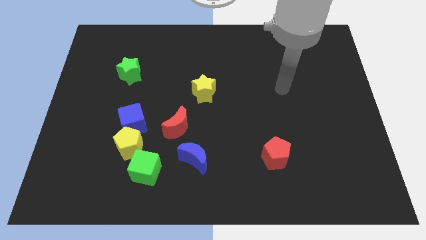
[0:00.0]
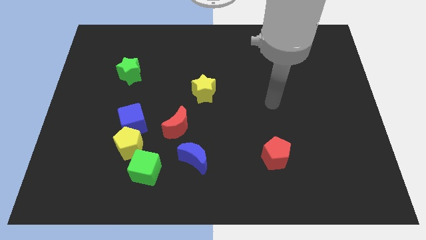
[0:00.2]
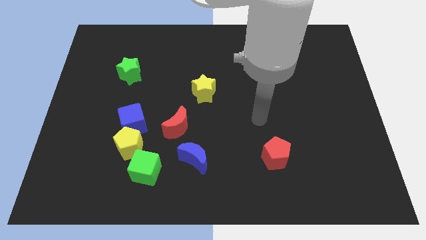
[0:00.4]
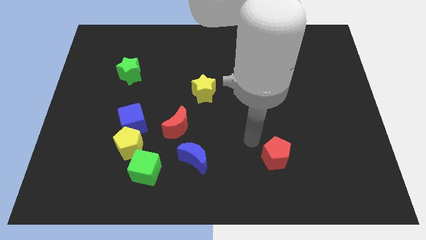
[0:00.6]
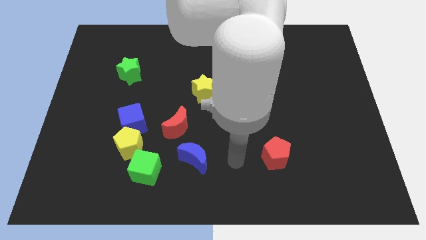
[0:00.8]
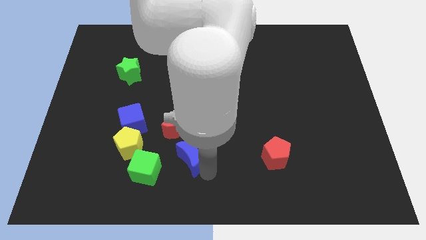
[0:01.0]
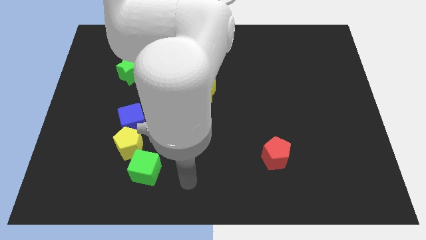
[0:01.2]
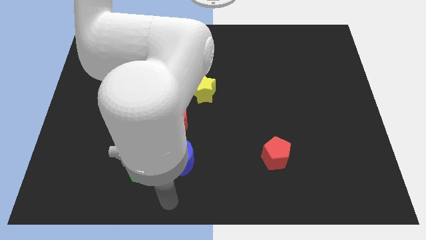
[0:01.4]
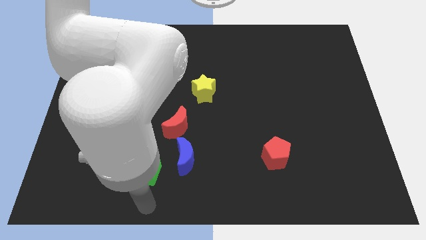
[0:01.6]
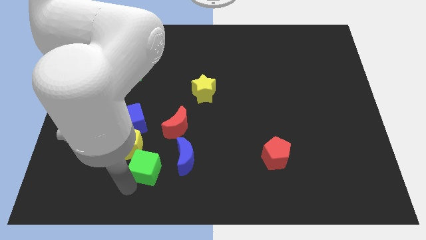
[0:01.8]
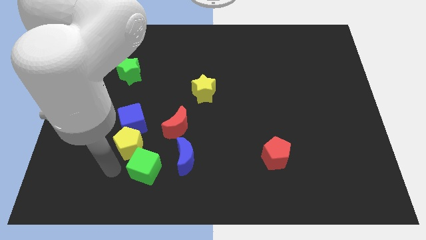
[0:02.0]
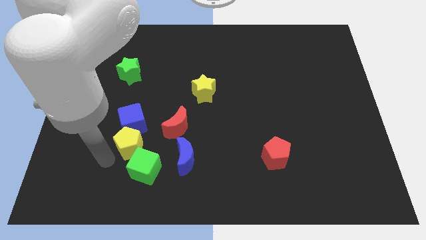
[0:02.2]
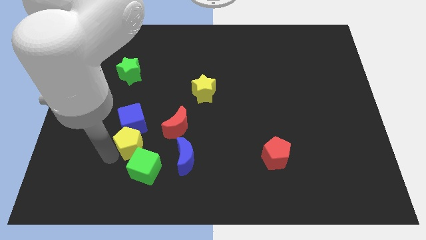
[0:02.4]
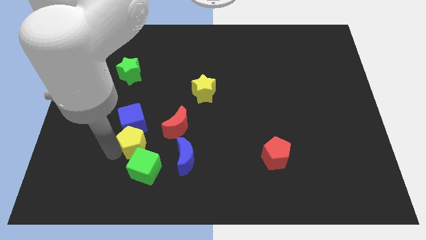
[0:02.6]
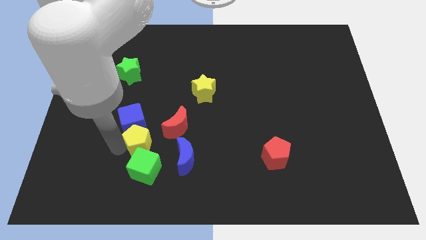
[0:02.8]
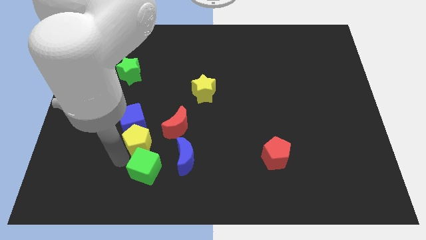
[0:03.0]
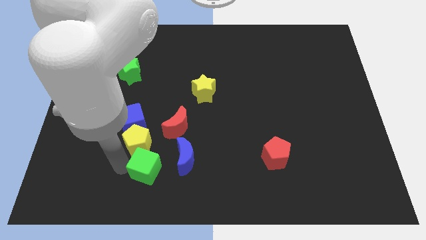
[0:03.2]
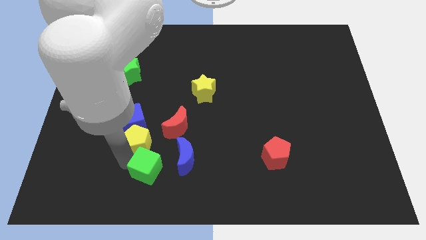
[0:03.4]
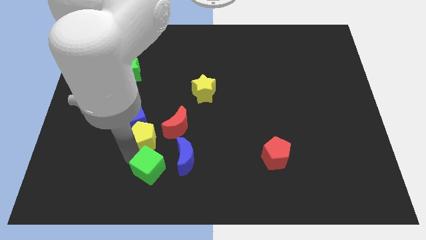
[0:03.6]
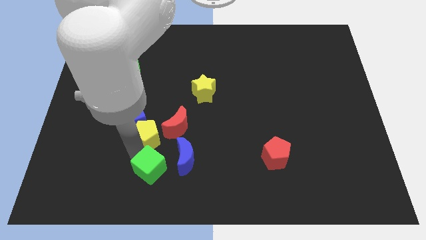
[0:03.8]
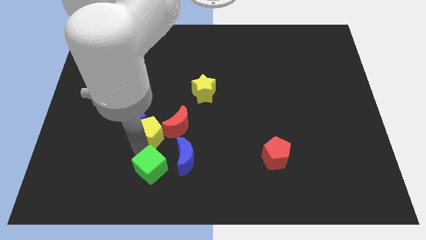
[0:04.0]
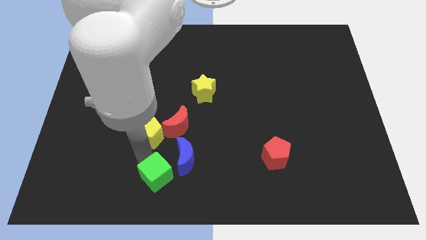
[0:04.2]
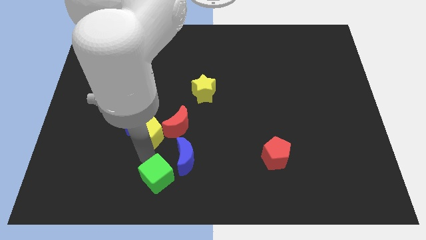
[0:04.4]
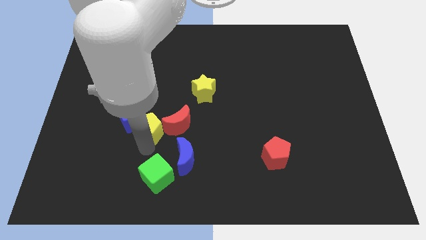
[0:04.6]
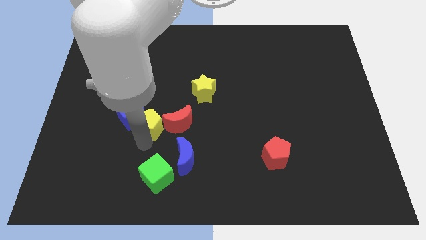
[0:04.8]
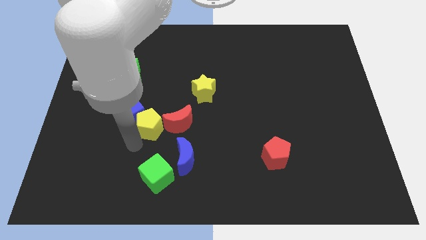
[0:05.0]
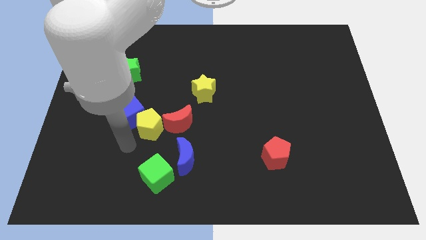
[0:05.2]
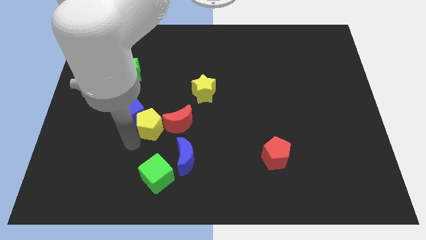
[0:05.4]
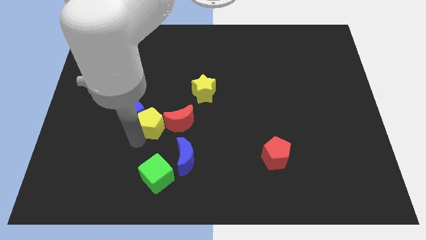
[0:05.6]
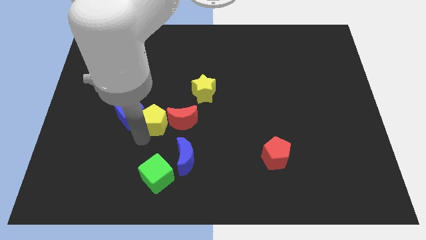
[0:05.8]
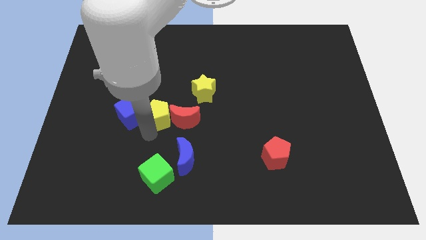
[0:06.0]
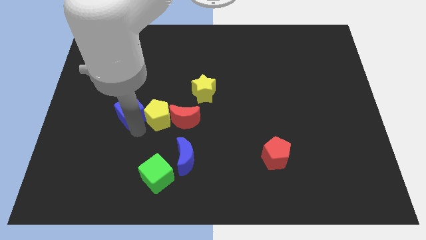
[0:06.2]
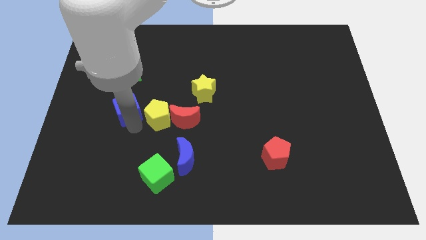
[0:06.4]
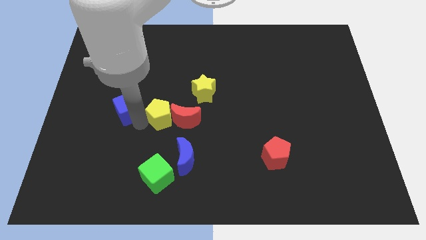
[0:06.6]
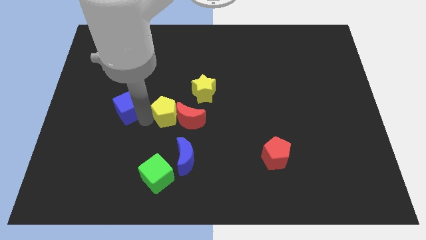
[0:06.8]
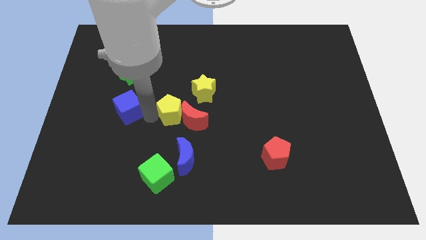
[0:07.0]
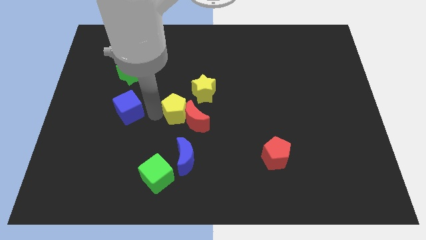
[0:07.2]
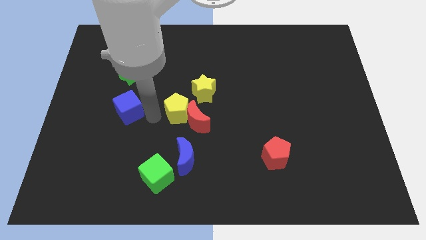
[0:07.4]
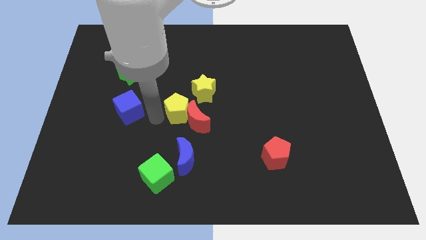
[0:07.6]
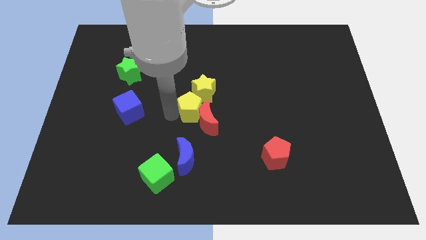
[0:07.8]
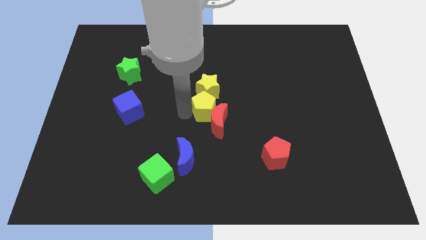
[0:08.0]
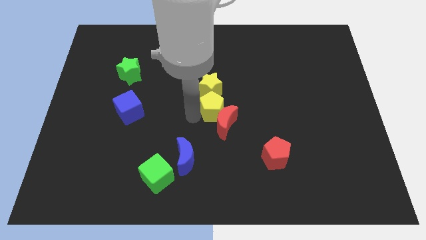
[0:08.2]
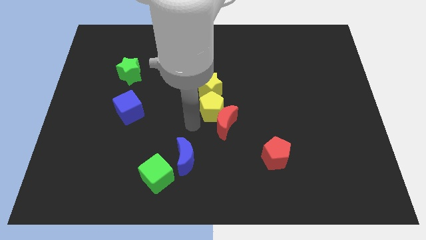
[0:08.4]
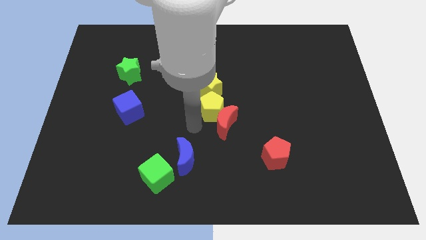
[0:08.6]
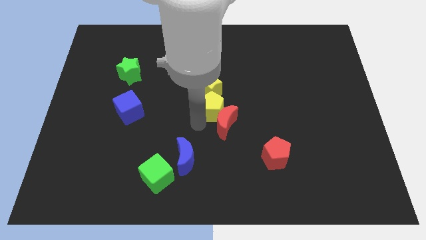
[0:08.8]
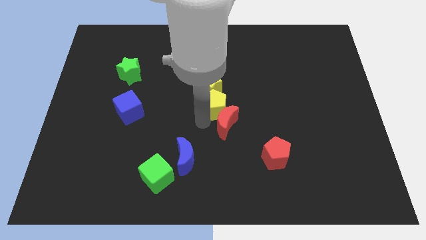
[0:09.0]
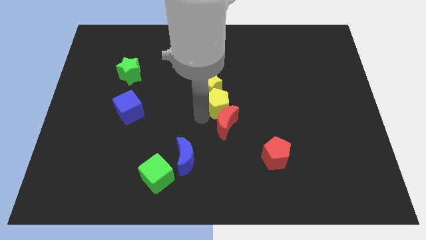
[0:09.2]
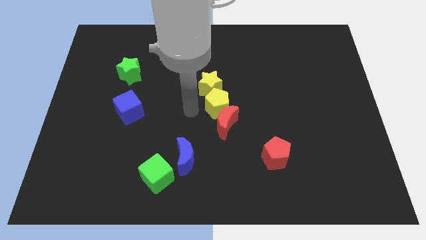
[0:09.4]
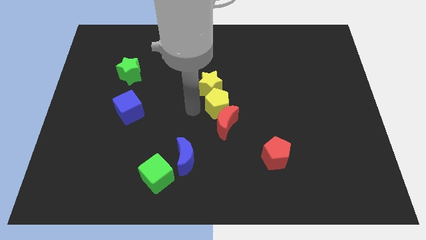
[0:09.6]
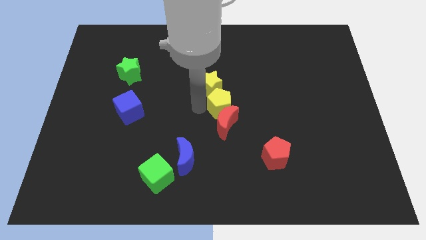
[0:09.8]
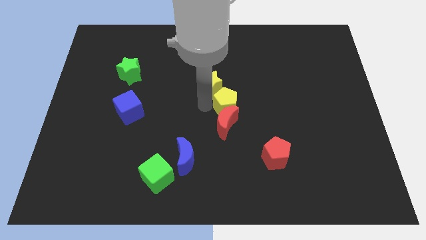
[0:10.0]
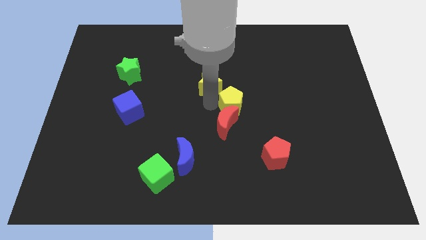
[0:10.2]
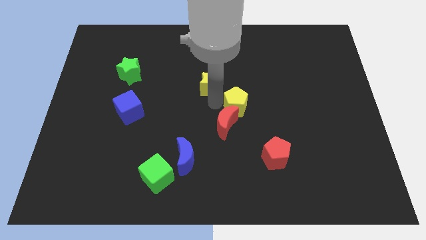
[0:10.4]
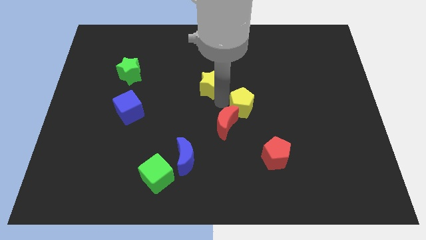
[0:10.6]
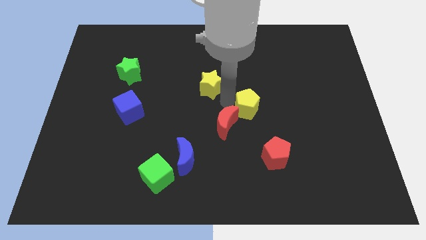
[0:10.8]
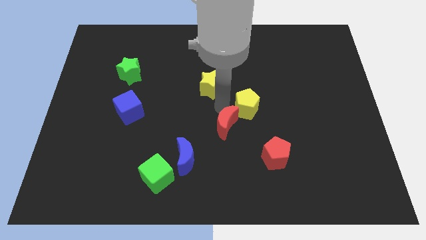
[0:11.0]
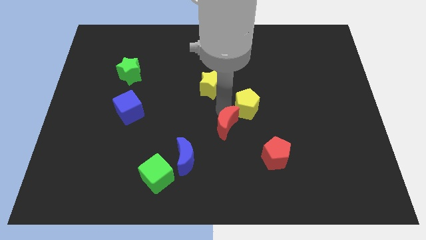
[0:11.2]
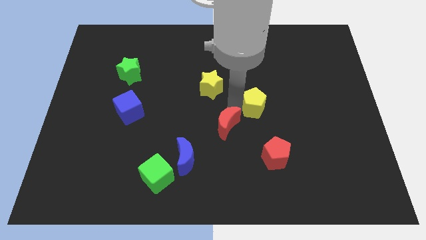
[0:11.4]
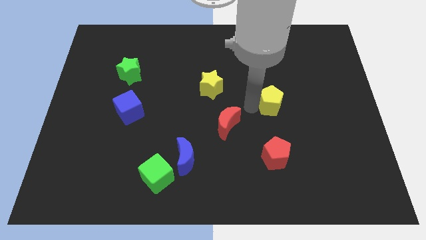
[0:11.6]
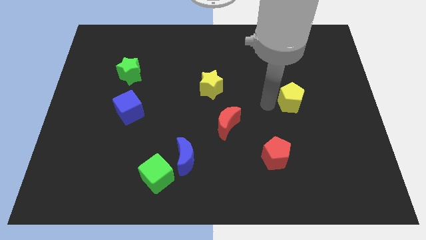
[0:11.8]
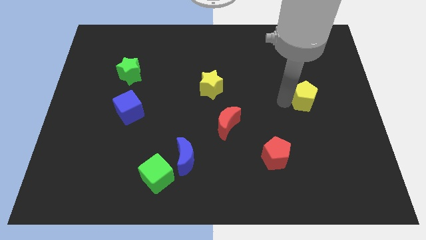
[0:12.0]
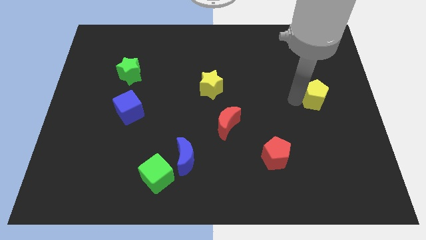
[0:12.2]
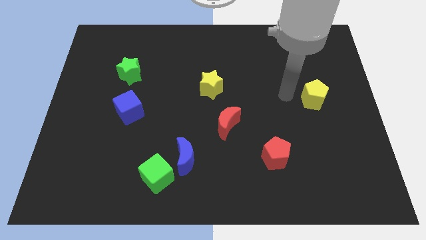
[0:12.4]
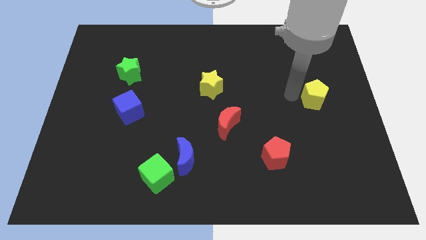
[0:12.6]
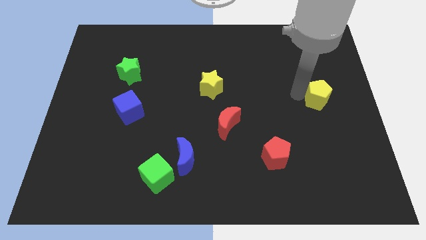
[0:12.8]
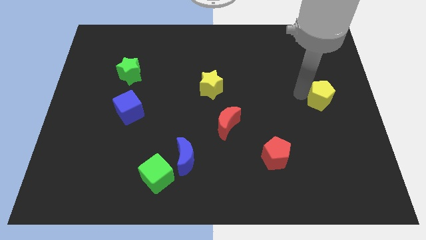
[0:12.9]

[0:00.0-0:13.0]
move the yellow pentagon to the center right
